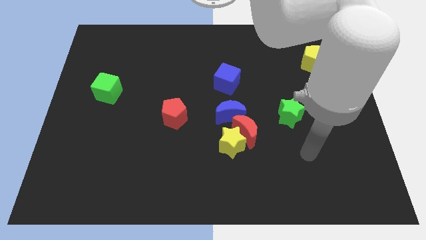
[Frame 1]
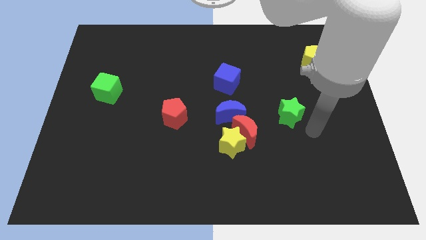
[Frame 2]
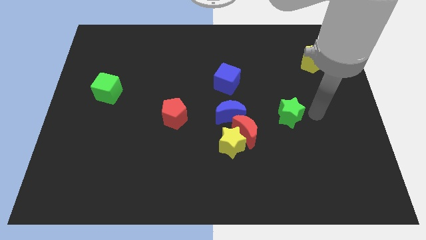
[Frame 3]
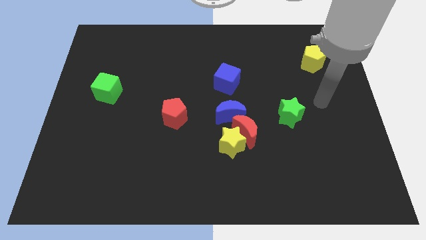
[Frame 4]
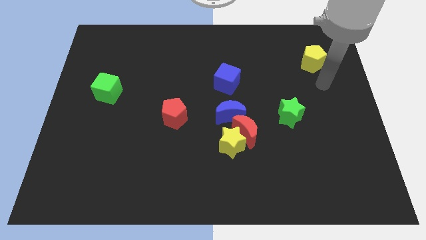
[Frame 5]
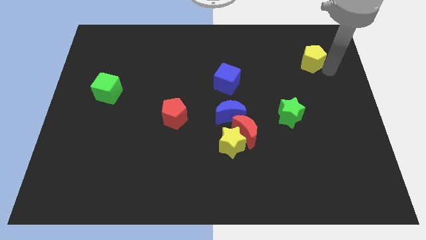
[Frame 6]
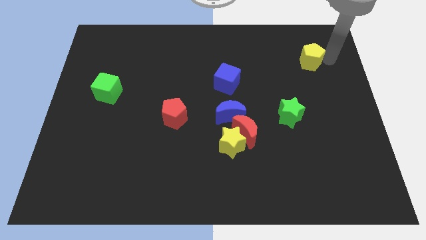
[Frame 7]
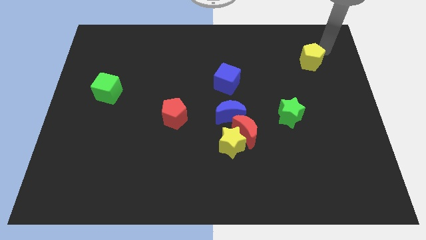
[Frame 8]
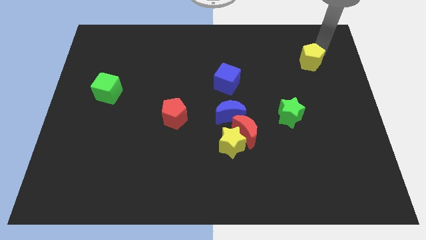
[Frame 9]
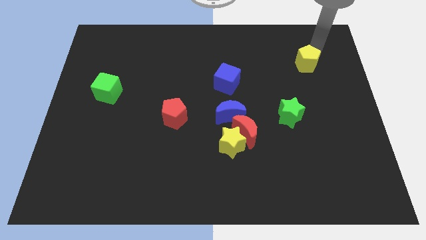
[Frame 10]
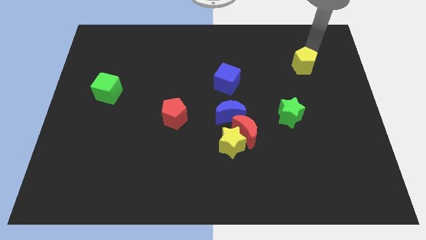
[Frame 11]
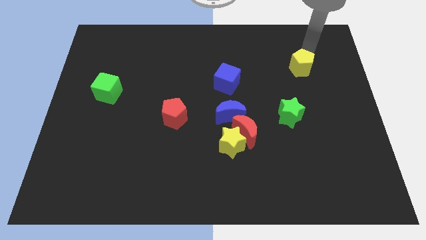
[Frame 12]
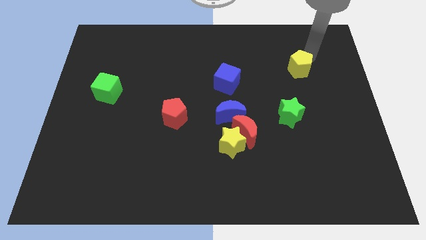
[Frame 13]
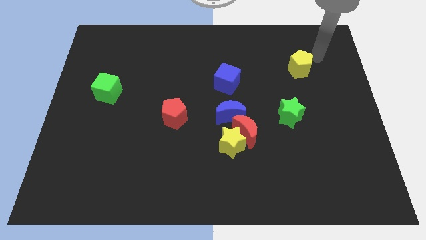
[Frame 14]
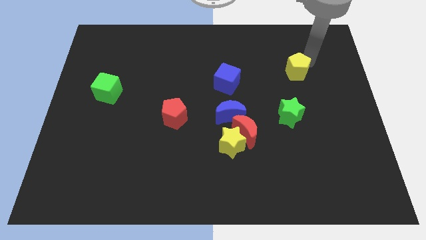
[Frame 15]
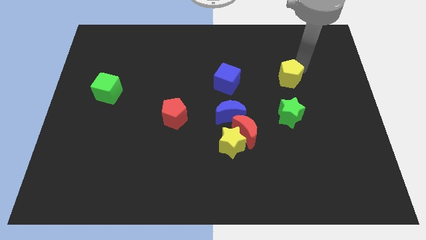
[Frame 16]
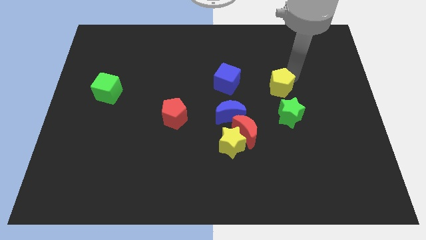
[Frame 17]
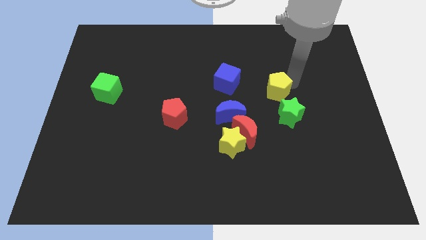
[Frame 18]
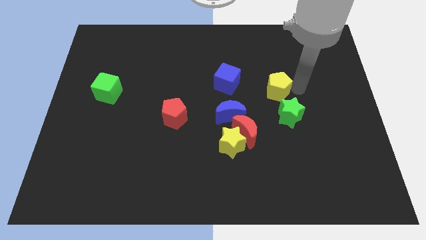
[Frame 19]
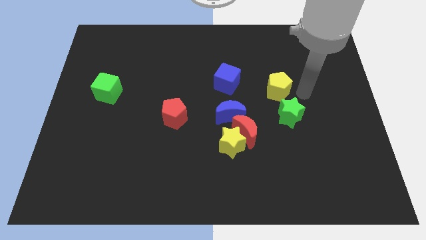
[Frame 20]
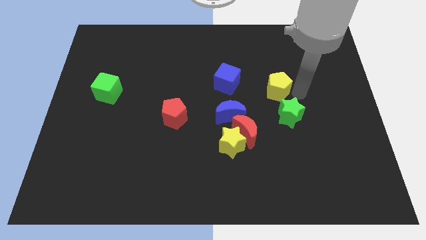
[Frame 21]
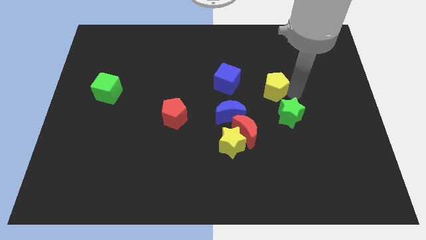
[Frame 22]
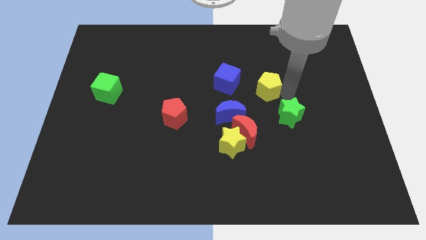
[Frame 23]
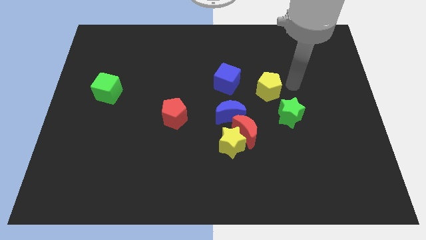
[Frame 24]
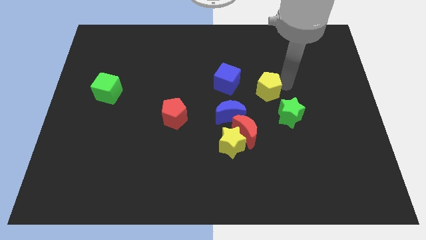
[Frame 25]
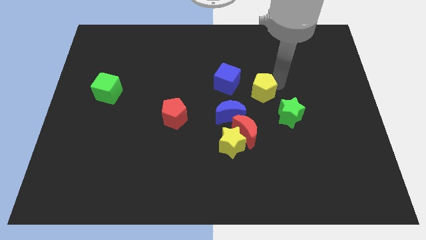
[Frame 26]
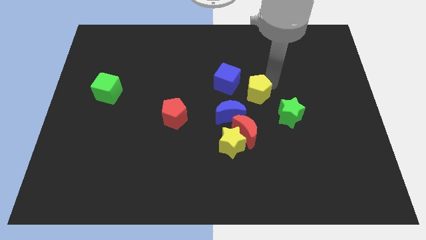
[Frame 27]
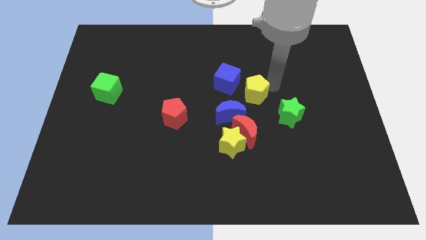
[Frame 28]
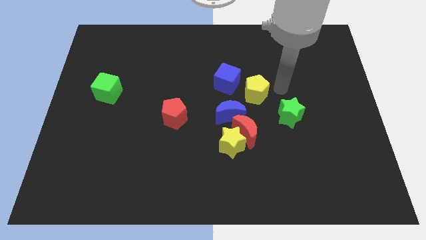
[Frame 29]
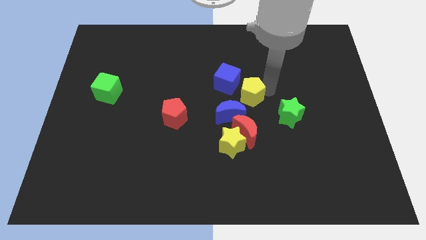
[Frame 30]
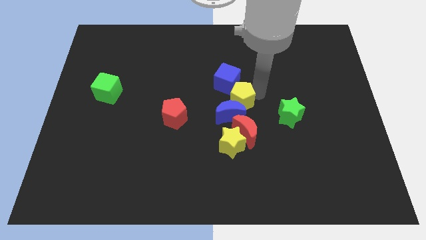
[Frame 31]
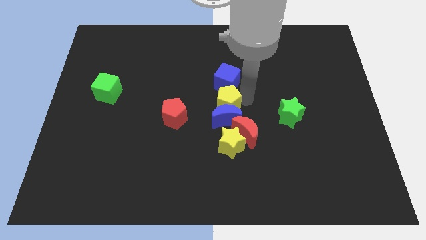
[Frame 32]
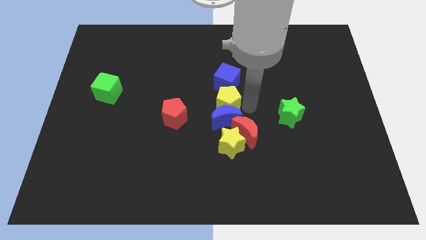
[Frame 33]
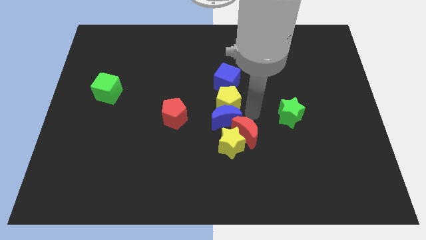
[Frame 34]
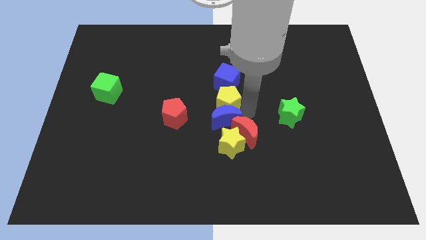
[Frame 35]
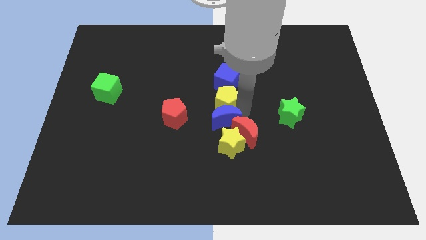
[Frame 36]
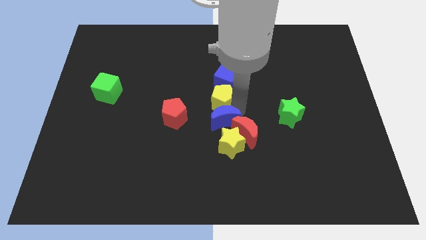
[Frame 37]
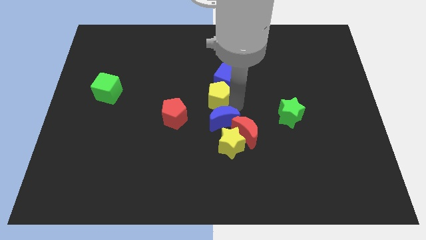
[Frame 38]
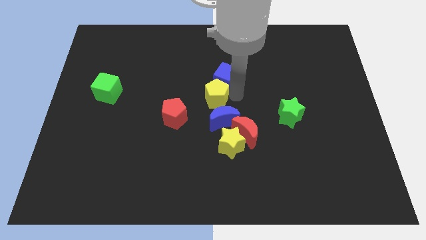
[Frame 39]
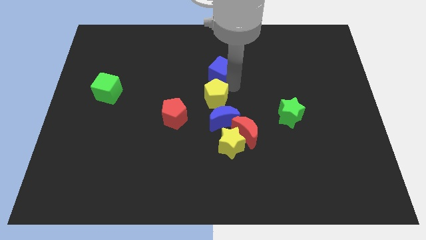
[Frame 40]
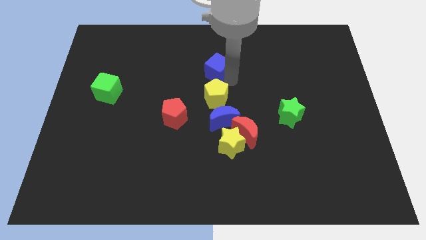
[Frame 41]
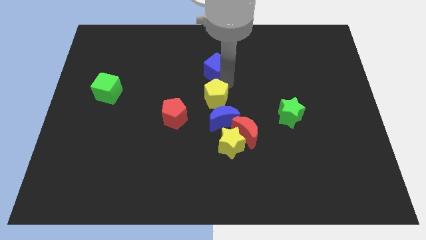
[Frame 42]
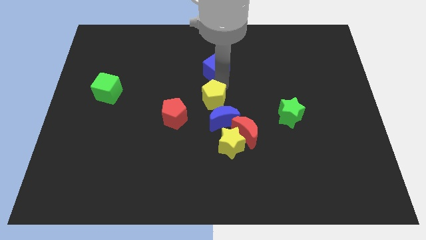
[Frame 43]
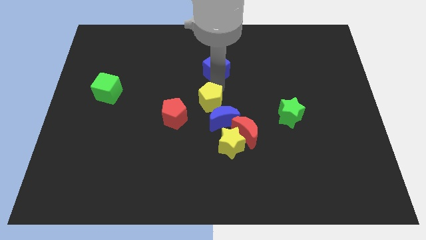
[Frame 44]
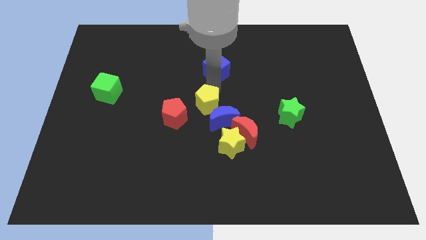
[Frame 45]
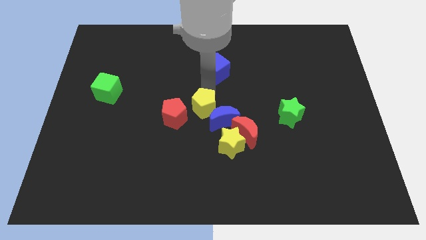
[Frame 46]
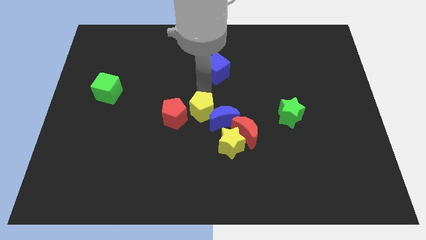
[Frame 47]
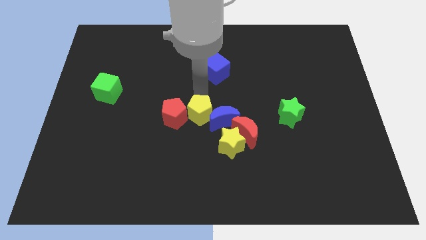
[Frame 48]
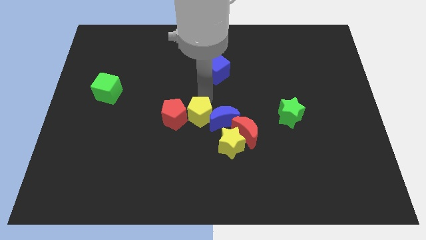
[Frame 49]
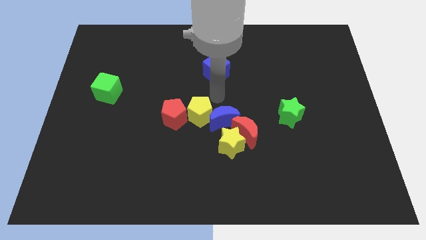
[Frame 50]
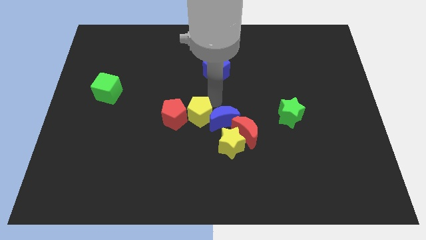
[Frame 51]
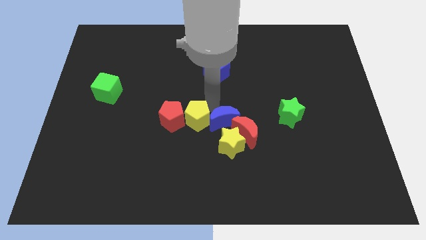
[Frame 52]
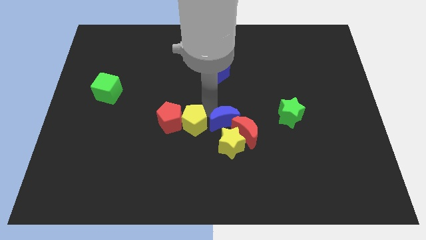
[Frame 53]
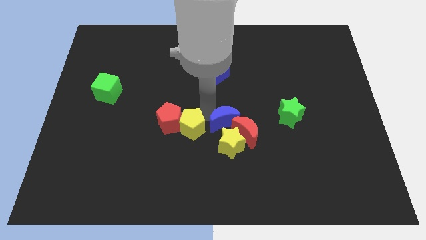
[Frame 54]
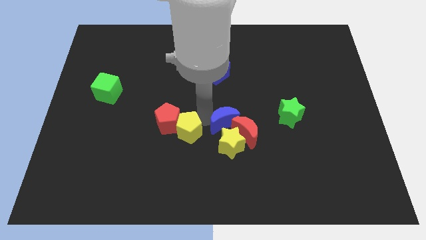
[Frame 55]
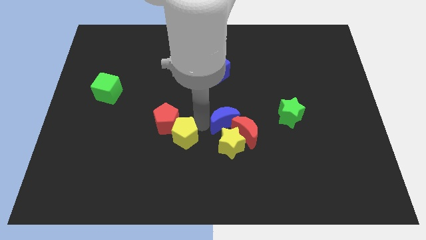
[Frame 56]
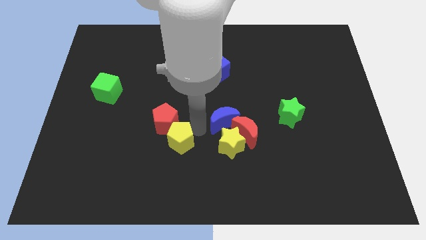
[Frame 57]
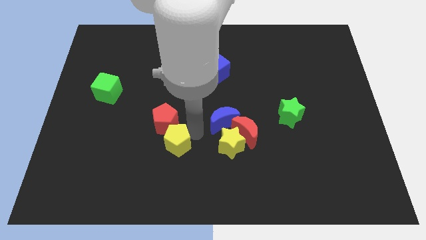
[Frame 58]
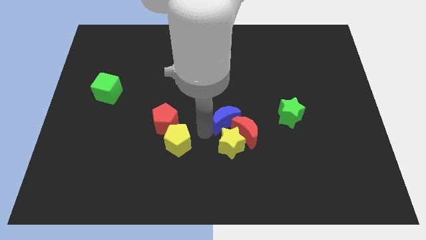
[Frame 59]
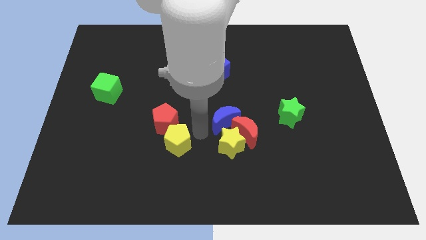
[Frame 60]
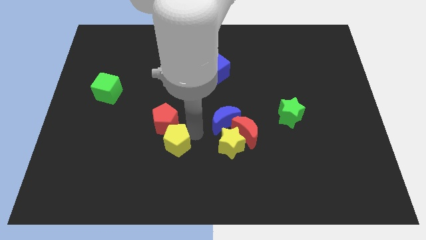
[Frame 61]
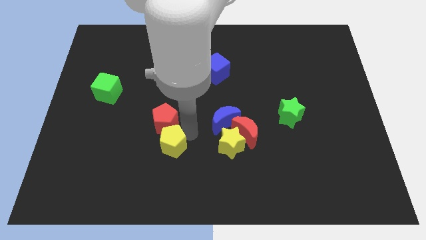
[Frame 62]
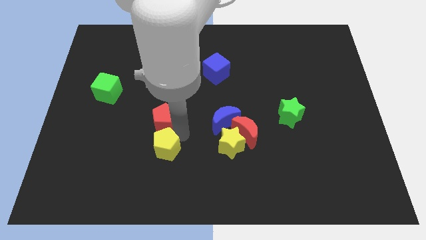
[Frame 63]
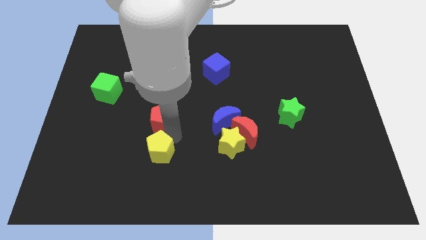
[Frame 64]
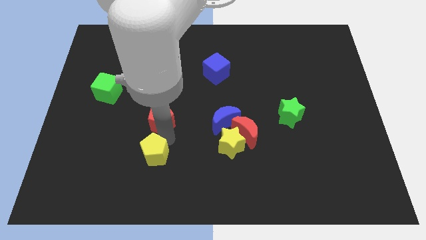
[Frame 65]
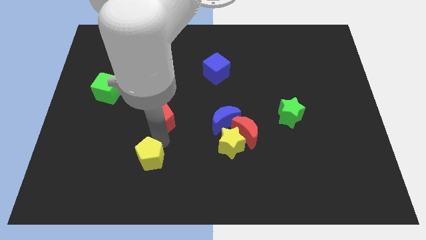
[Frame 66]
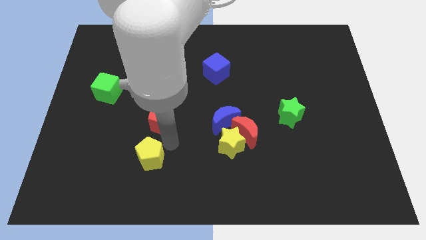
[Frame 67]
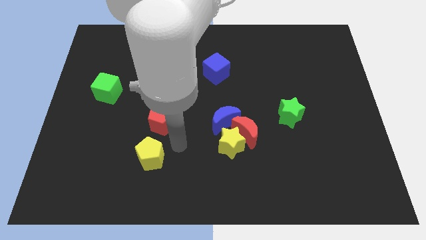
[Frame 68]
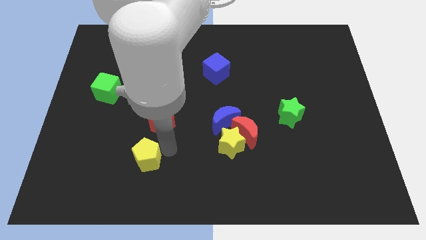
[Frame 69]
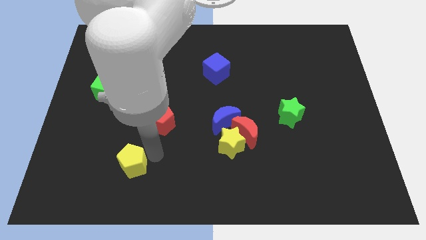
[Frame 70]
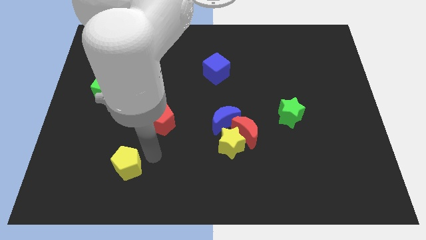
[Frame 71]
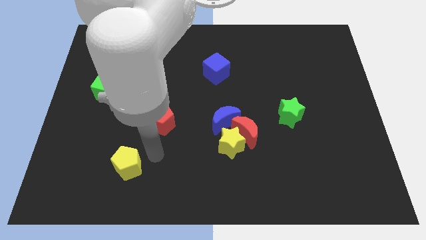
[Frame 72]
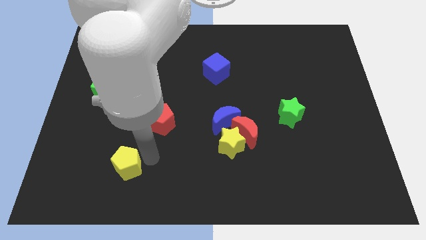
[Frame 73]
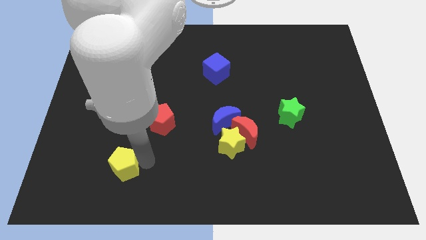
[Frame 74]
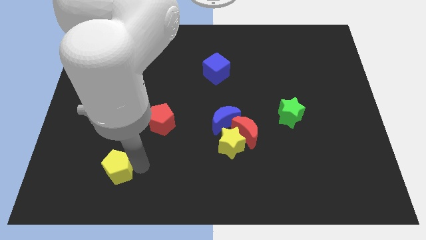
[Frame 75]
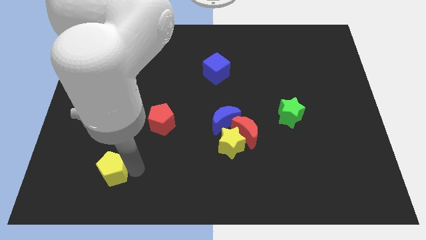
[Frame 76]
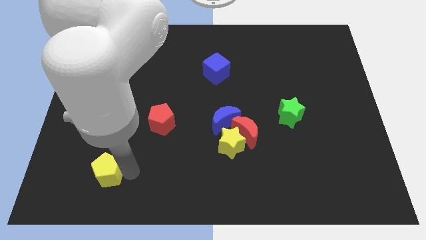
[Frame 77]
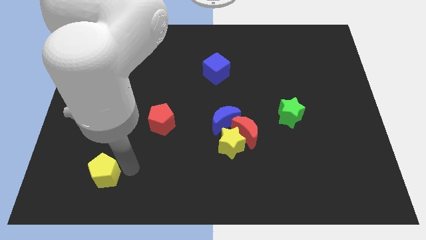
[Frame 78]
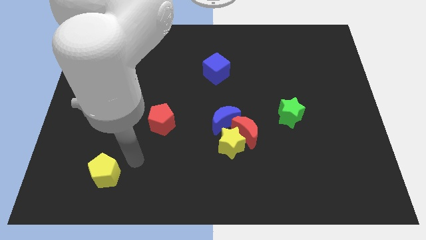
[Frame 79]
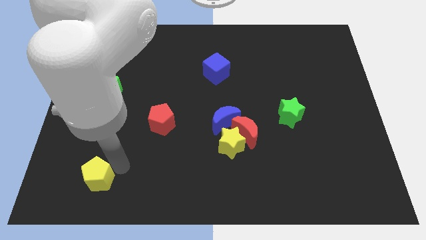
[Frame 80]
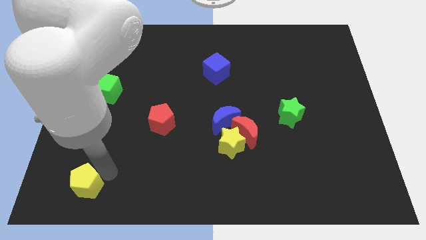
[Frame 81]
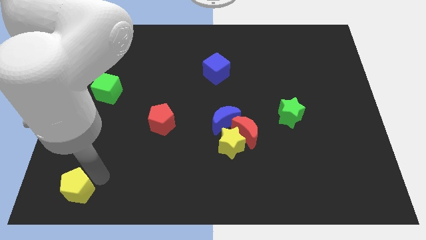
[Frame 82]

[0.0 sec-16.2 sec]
put the yellow pentagon to the bottom left of the board
